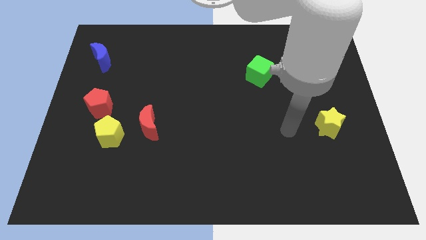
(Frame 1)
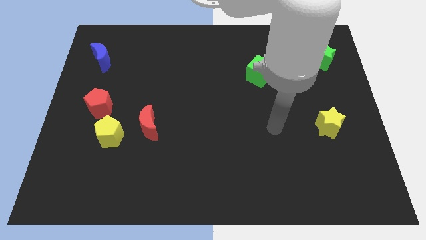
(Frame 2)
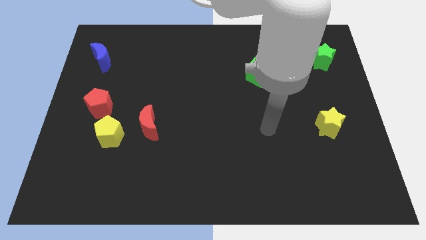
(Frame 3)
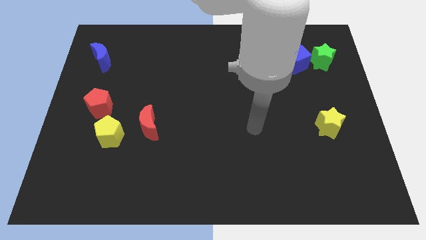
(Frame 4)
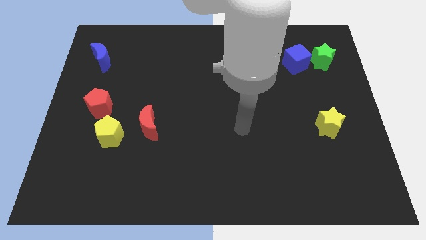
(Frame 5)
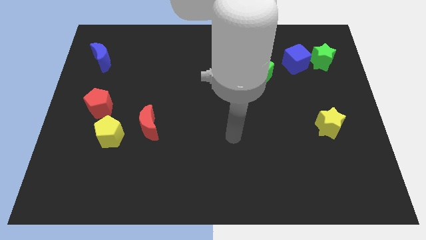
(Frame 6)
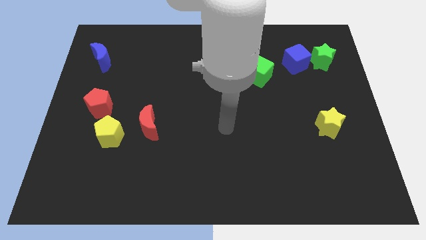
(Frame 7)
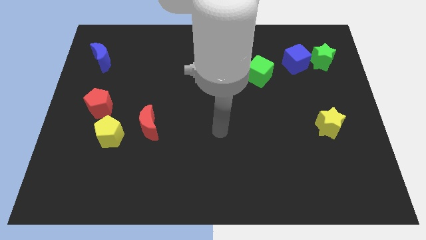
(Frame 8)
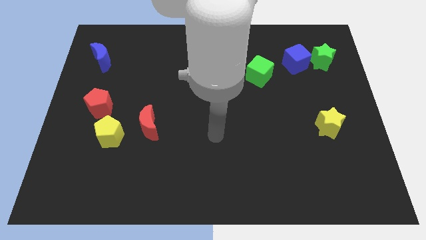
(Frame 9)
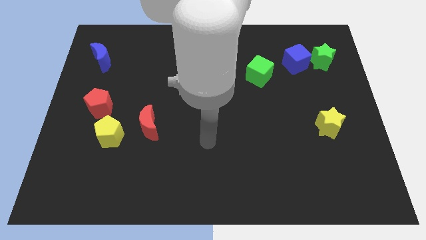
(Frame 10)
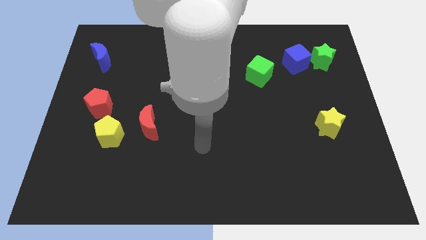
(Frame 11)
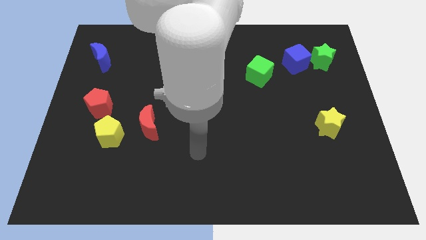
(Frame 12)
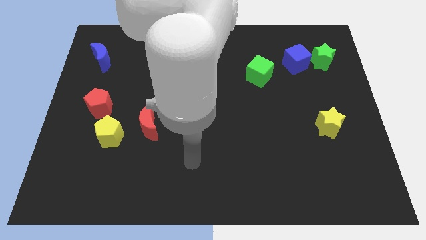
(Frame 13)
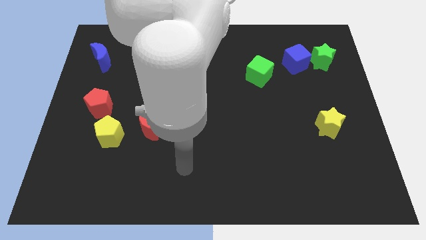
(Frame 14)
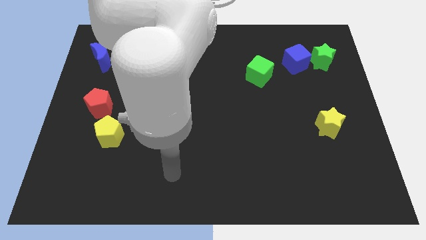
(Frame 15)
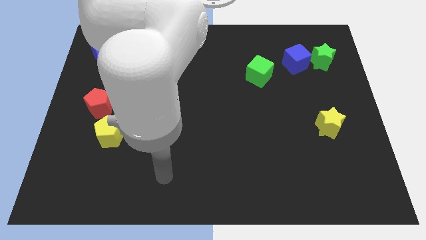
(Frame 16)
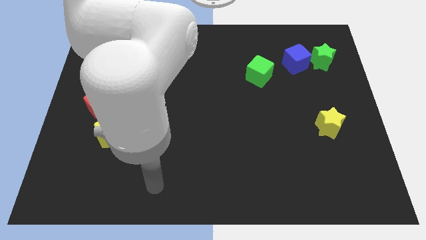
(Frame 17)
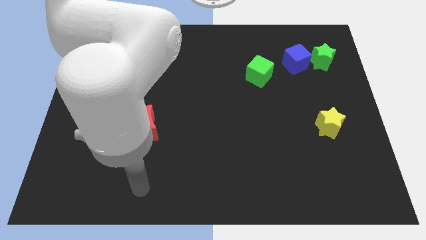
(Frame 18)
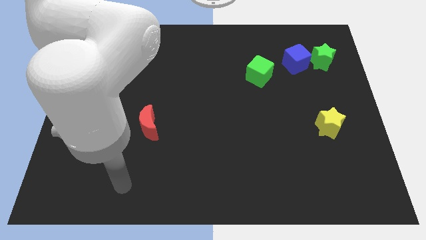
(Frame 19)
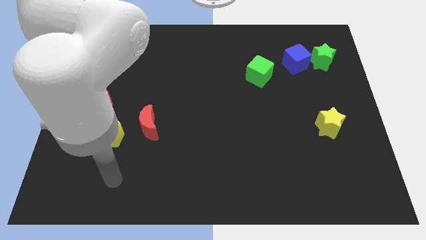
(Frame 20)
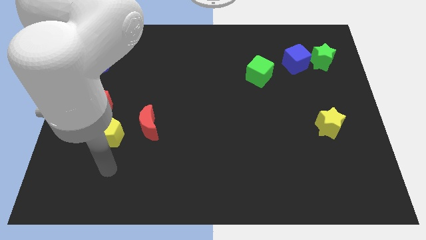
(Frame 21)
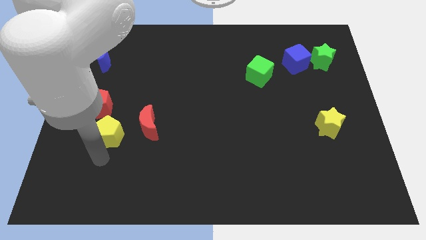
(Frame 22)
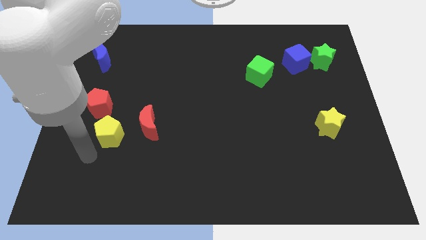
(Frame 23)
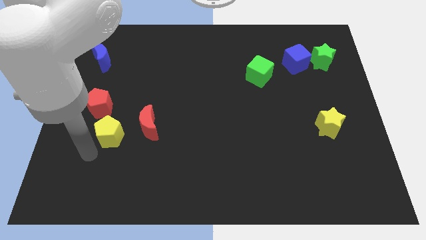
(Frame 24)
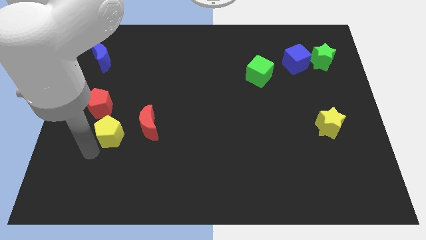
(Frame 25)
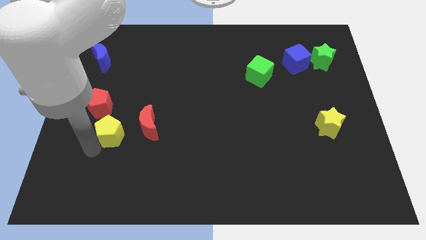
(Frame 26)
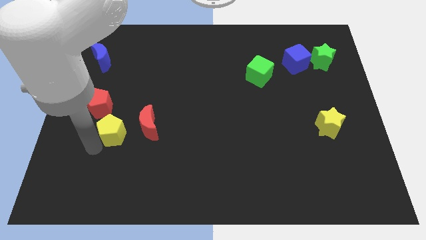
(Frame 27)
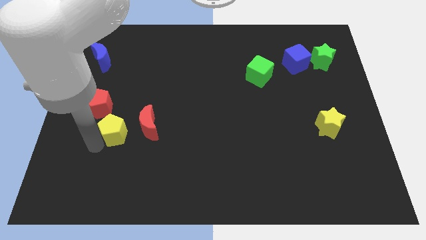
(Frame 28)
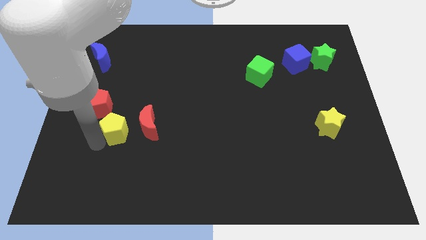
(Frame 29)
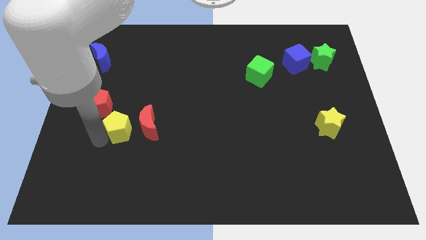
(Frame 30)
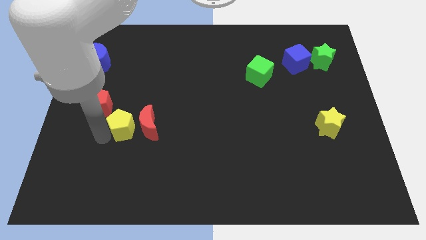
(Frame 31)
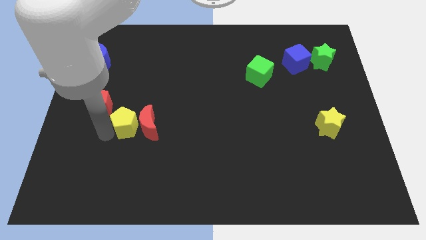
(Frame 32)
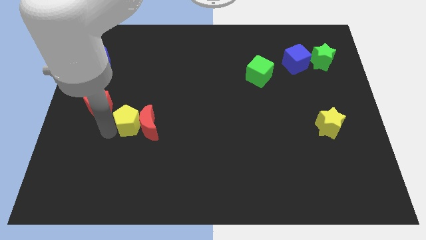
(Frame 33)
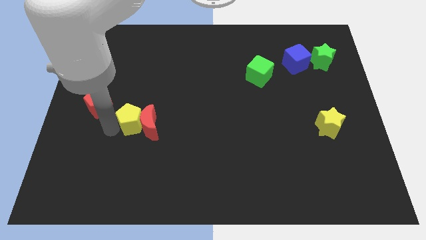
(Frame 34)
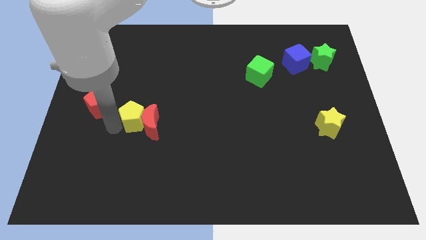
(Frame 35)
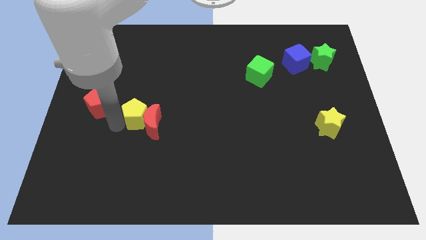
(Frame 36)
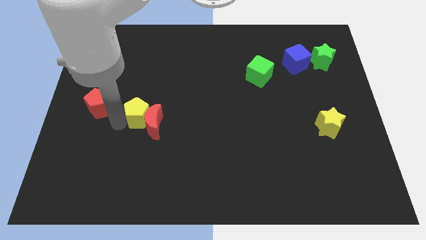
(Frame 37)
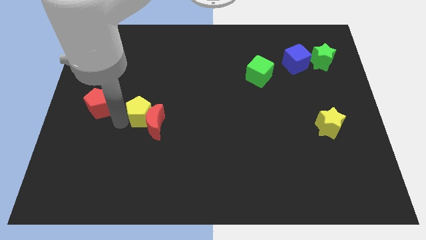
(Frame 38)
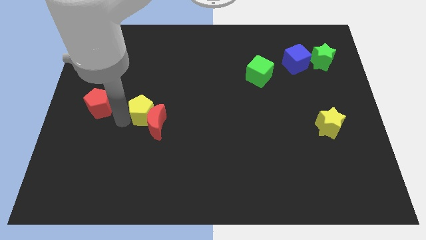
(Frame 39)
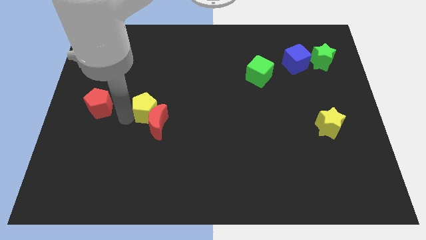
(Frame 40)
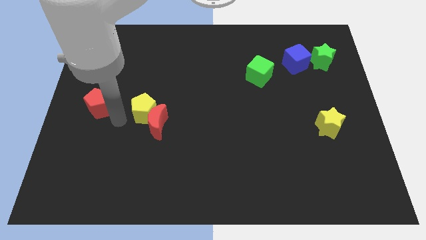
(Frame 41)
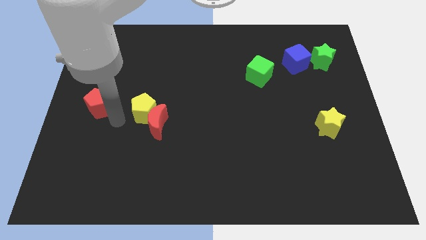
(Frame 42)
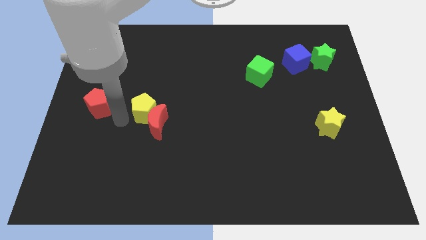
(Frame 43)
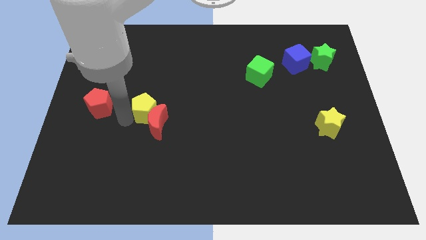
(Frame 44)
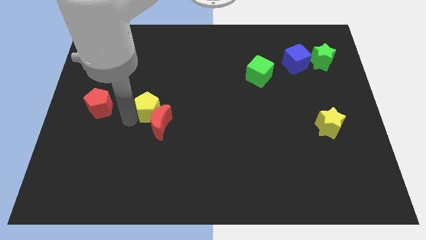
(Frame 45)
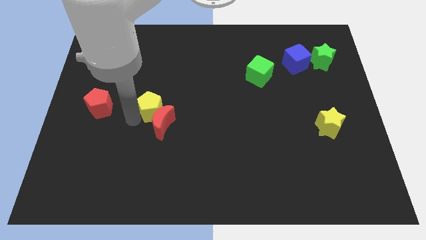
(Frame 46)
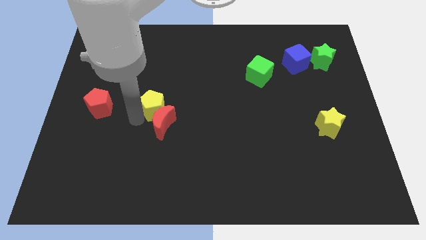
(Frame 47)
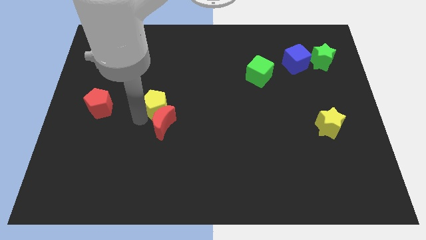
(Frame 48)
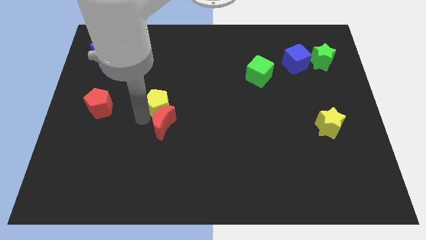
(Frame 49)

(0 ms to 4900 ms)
put the yellow pentagon to the middle

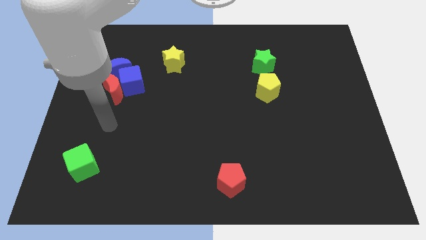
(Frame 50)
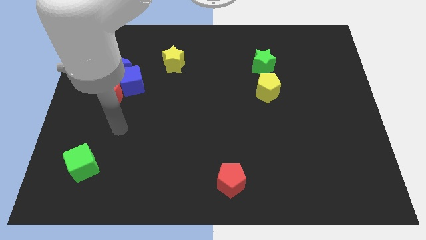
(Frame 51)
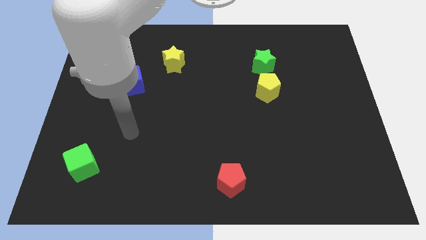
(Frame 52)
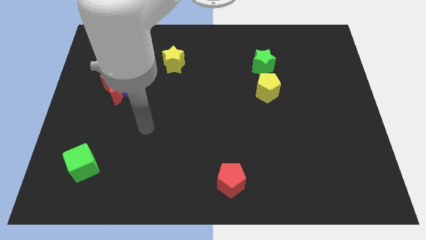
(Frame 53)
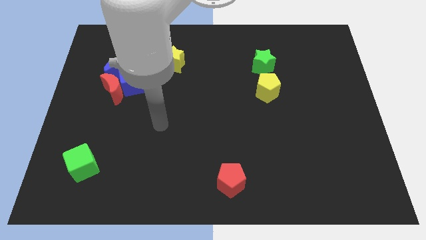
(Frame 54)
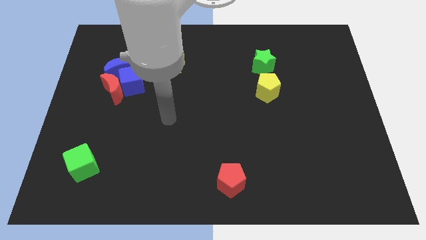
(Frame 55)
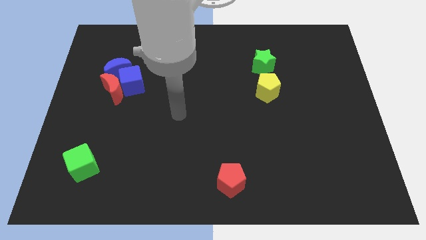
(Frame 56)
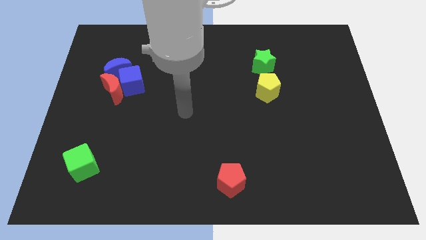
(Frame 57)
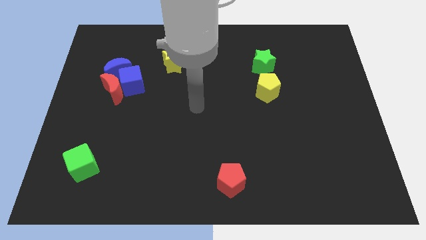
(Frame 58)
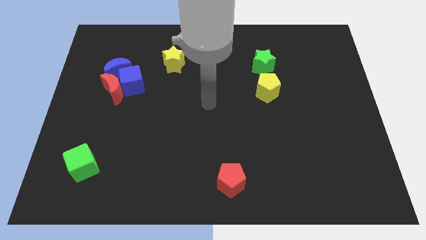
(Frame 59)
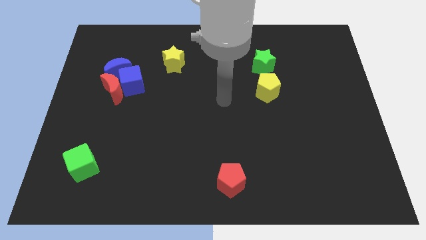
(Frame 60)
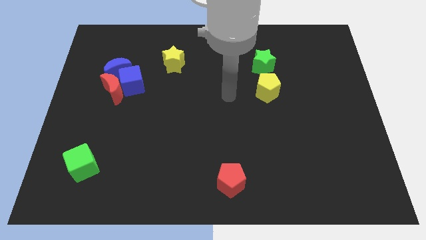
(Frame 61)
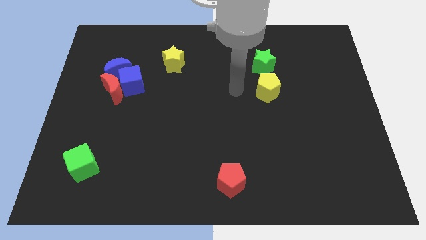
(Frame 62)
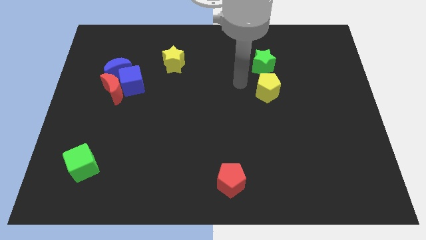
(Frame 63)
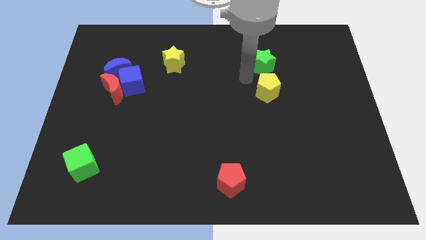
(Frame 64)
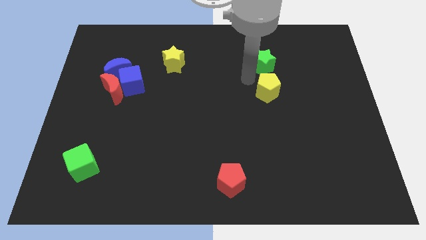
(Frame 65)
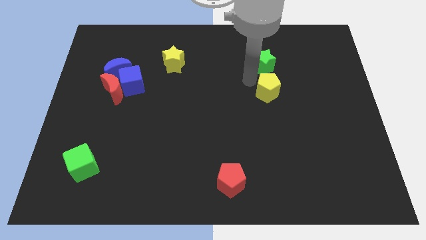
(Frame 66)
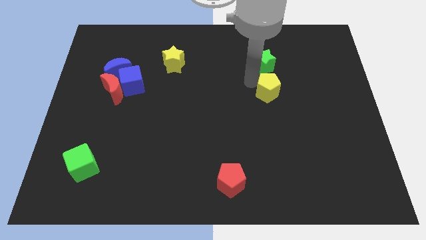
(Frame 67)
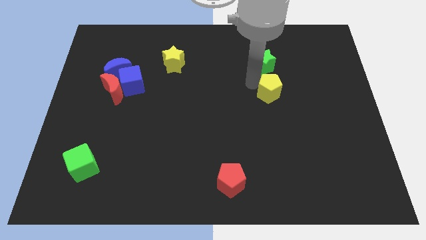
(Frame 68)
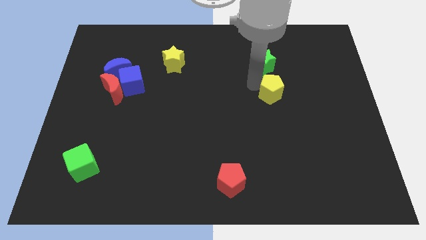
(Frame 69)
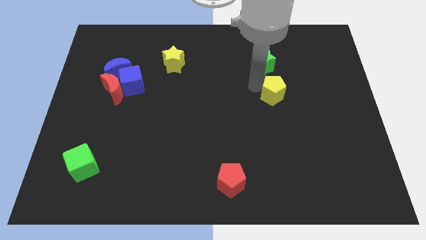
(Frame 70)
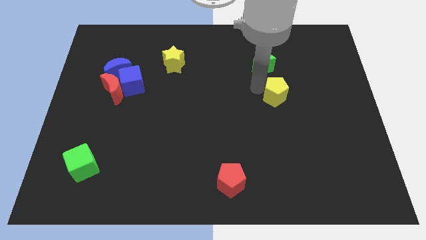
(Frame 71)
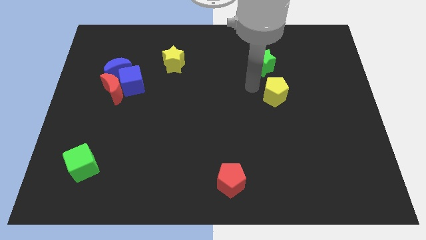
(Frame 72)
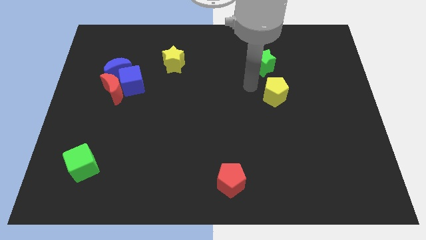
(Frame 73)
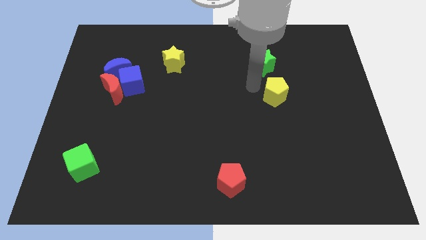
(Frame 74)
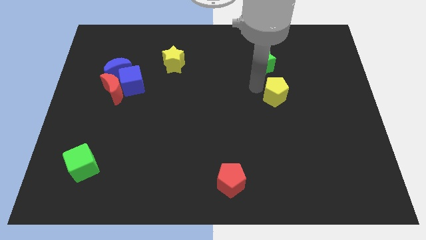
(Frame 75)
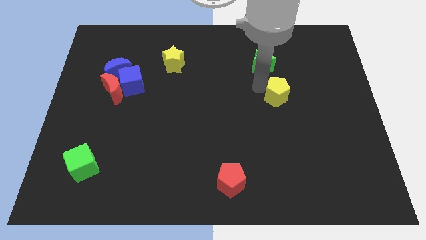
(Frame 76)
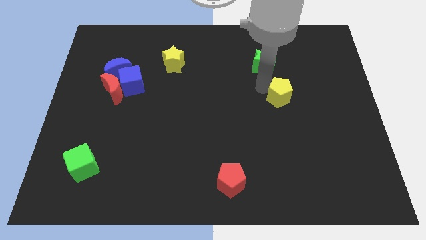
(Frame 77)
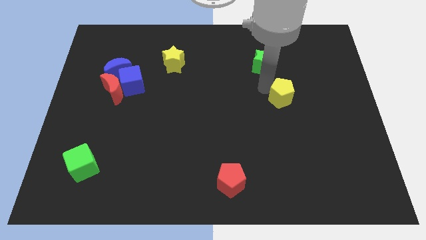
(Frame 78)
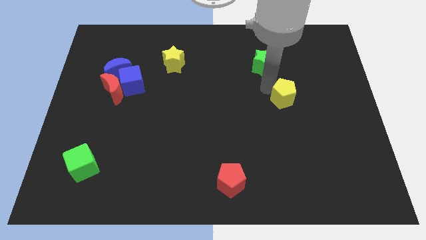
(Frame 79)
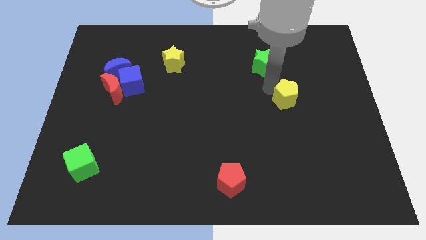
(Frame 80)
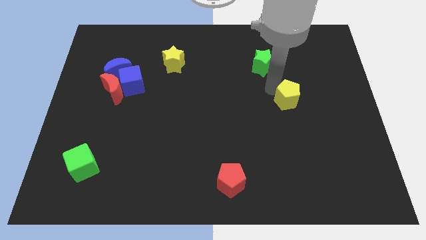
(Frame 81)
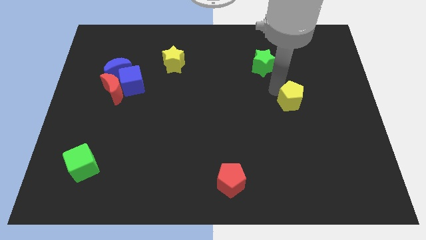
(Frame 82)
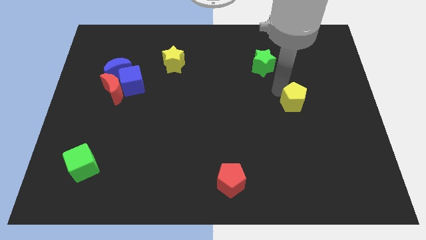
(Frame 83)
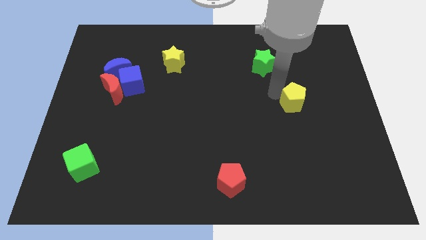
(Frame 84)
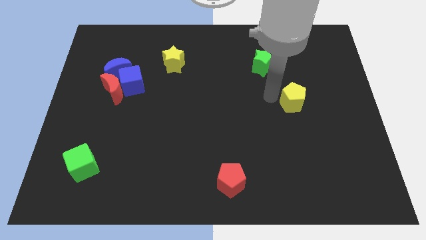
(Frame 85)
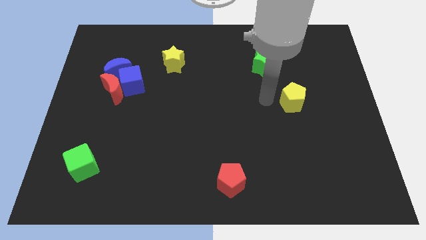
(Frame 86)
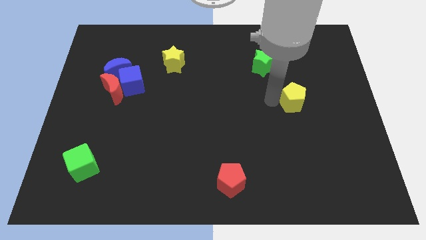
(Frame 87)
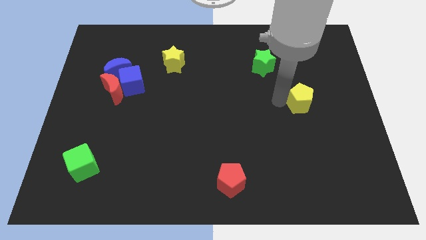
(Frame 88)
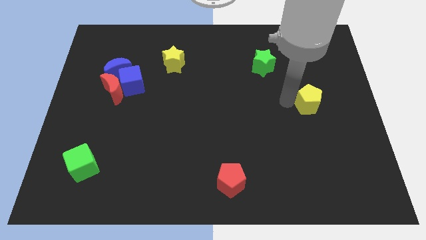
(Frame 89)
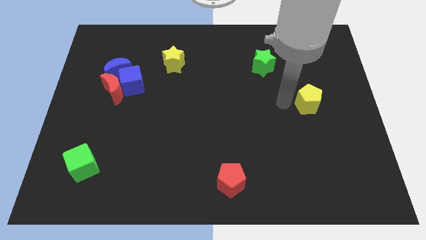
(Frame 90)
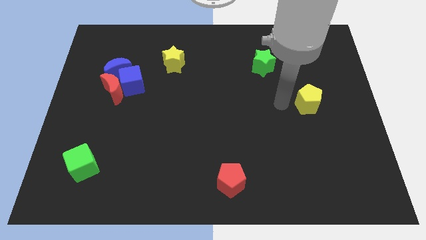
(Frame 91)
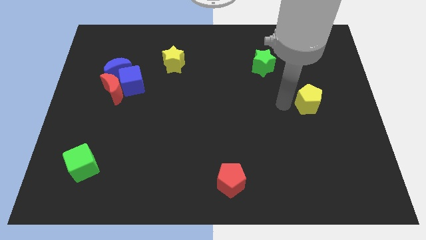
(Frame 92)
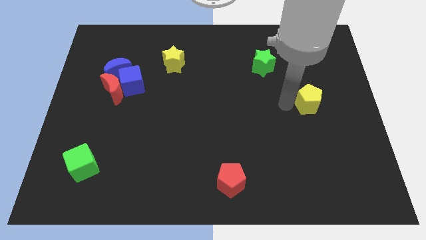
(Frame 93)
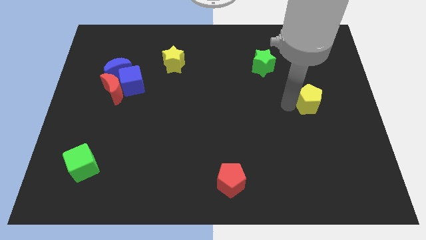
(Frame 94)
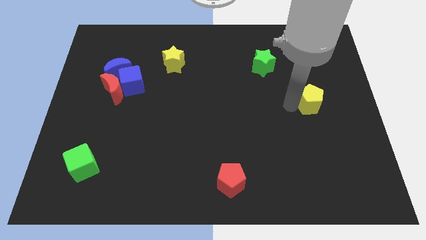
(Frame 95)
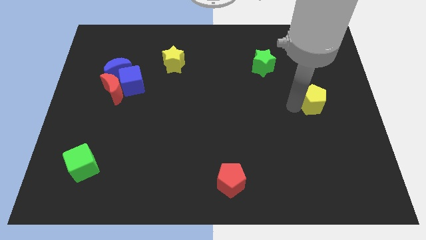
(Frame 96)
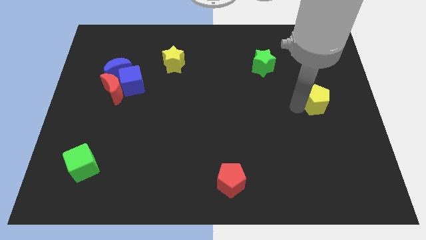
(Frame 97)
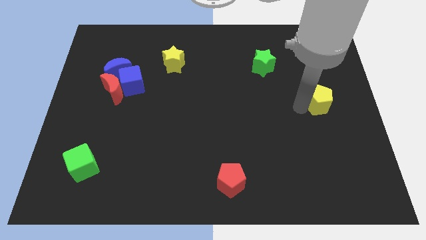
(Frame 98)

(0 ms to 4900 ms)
move the yellow pentagon to the right side of the board
